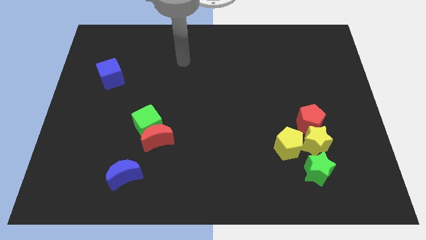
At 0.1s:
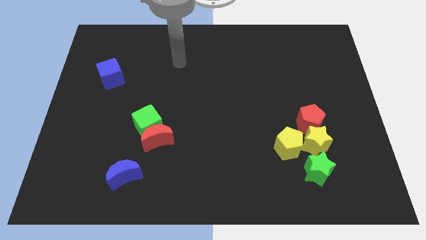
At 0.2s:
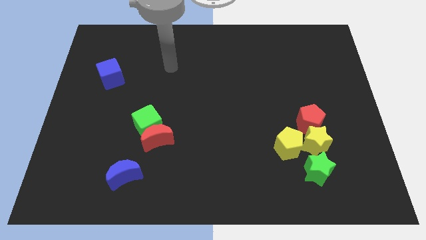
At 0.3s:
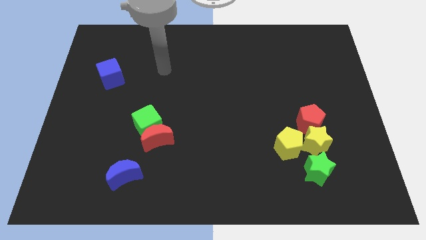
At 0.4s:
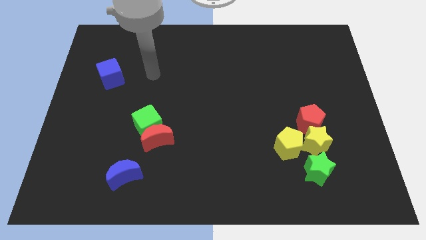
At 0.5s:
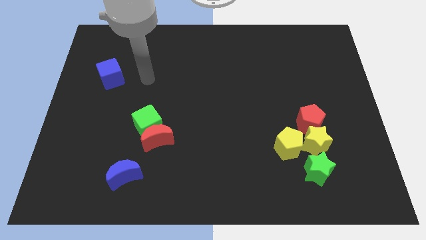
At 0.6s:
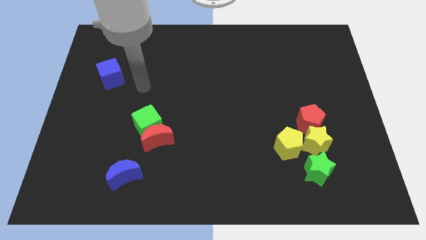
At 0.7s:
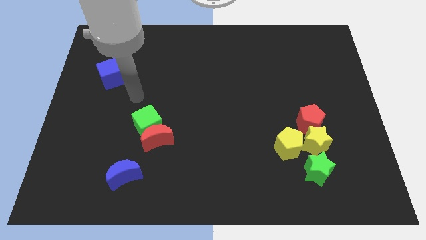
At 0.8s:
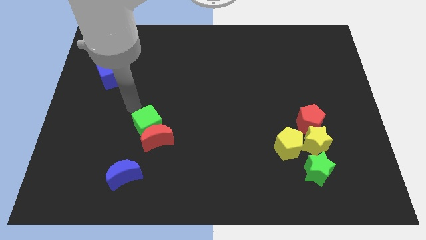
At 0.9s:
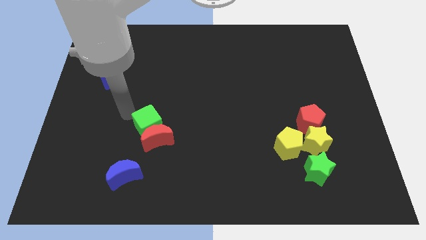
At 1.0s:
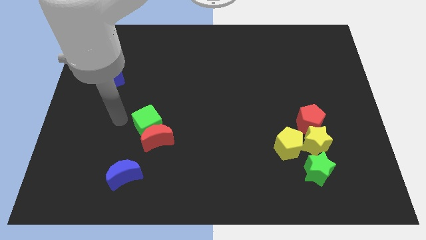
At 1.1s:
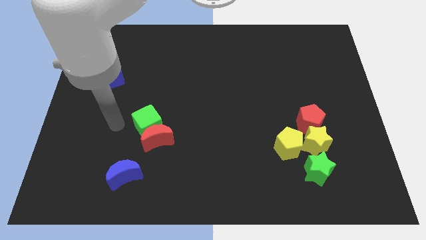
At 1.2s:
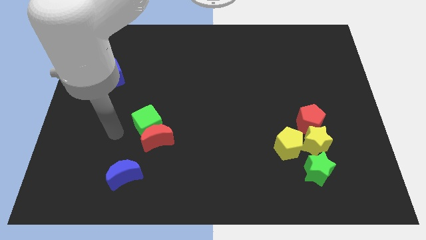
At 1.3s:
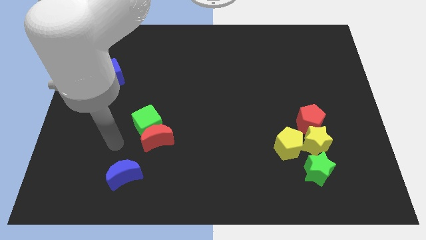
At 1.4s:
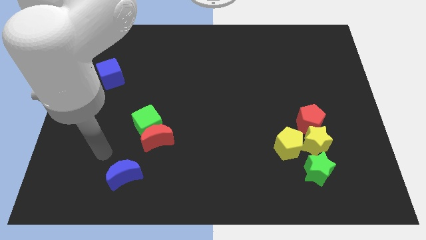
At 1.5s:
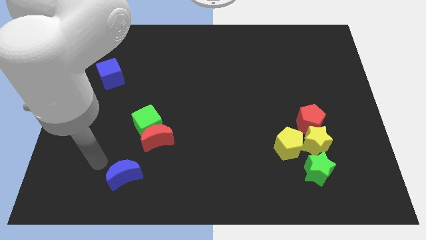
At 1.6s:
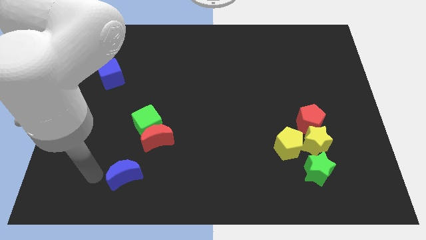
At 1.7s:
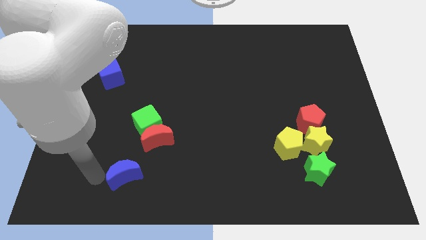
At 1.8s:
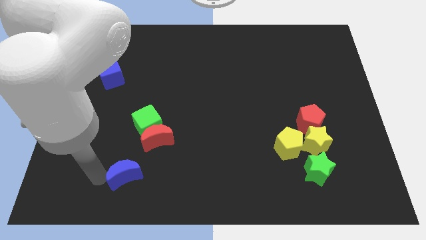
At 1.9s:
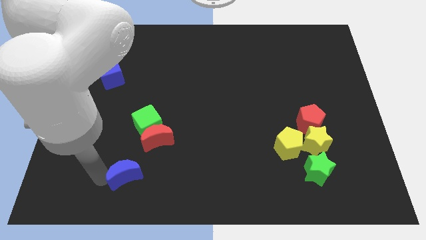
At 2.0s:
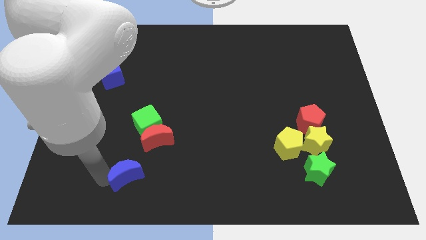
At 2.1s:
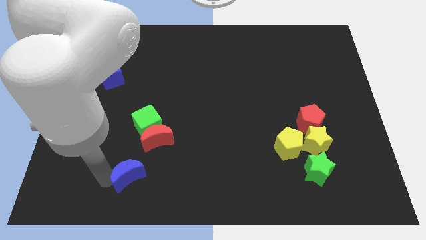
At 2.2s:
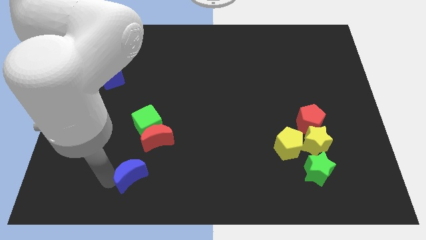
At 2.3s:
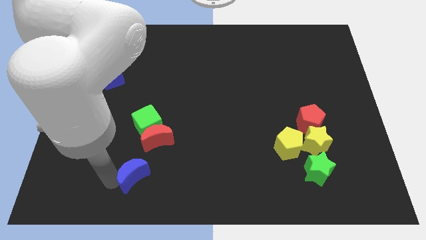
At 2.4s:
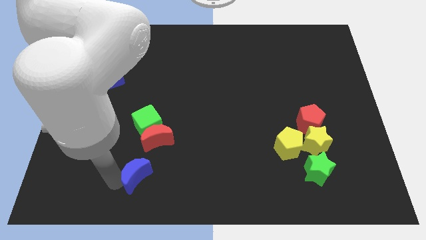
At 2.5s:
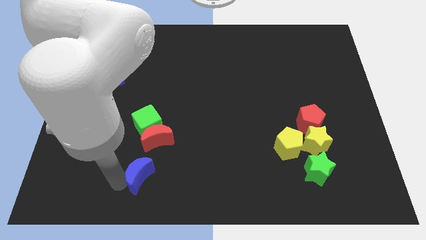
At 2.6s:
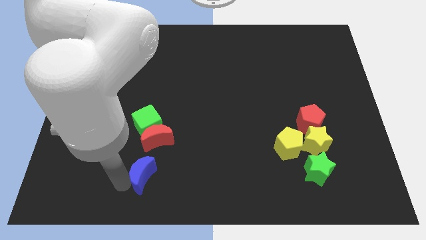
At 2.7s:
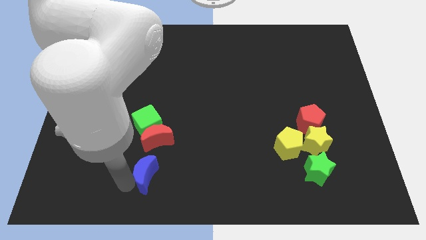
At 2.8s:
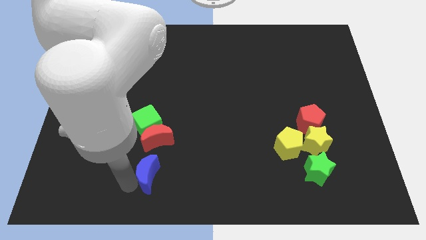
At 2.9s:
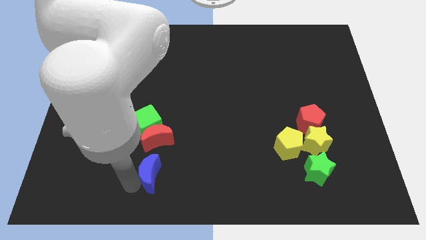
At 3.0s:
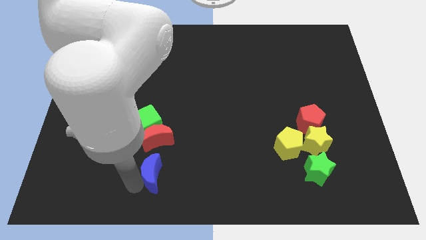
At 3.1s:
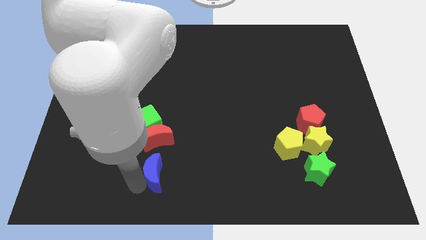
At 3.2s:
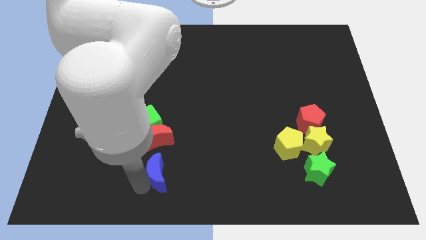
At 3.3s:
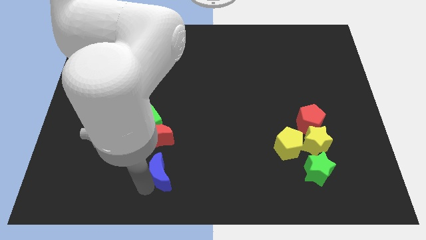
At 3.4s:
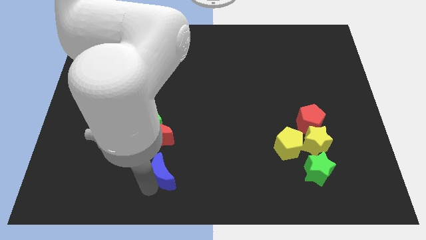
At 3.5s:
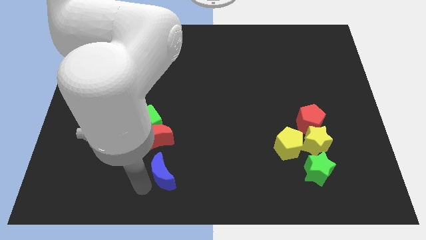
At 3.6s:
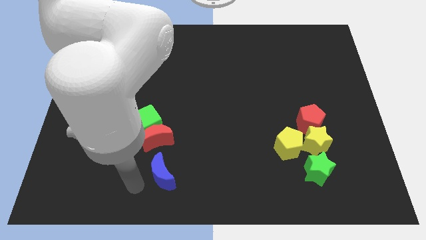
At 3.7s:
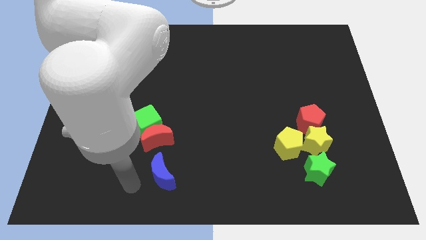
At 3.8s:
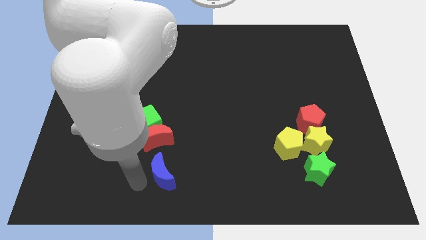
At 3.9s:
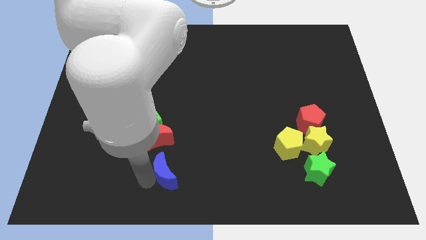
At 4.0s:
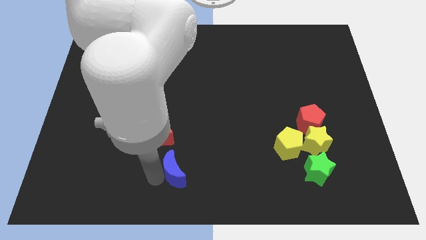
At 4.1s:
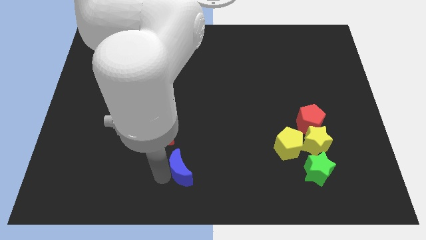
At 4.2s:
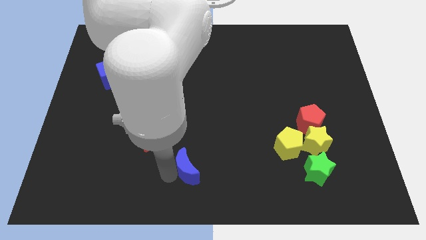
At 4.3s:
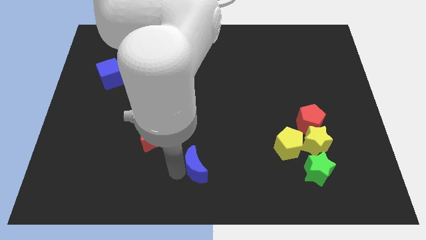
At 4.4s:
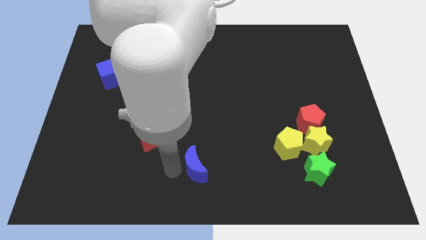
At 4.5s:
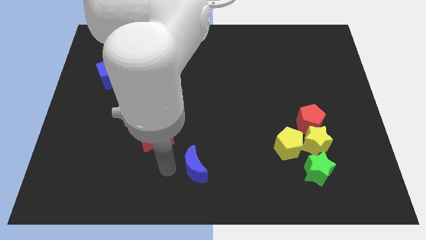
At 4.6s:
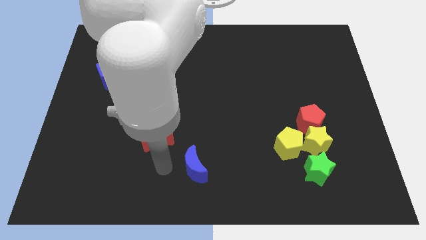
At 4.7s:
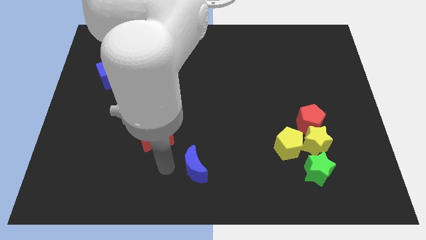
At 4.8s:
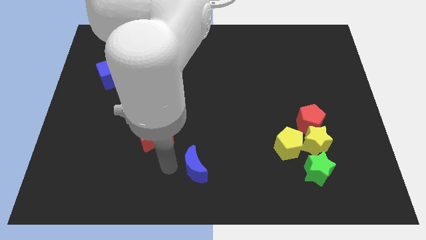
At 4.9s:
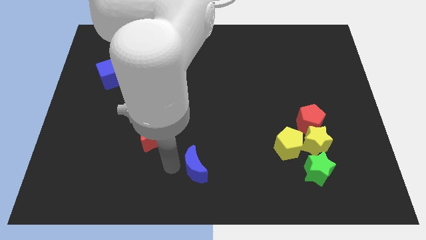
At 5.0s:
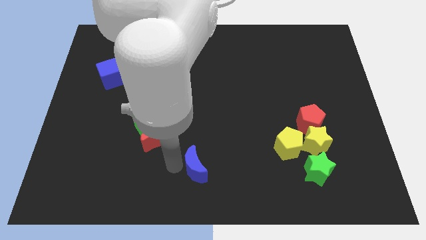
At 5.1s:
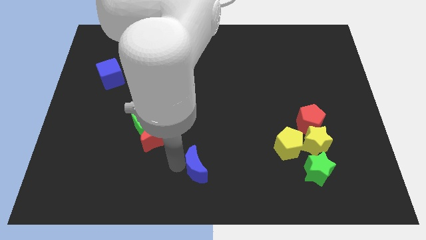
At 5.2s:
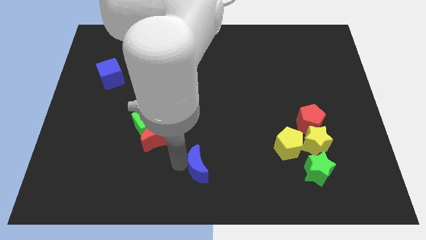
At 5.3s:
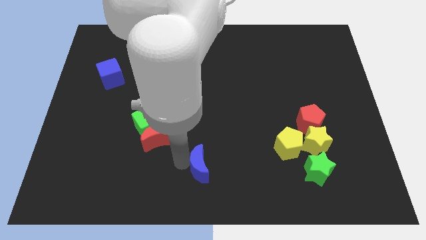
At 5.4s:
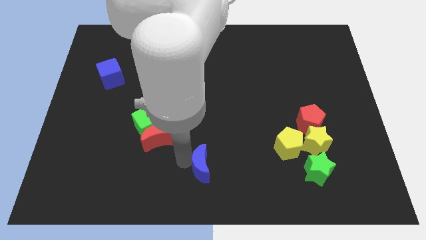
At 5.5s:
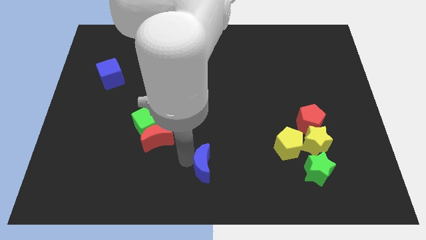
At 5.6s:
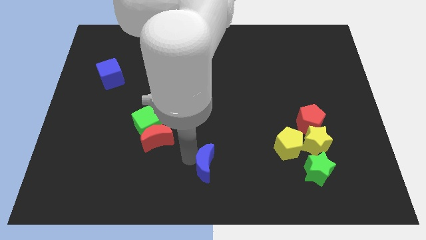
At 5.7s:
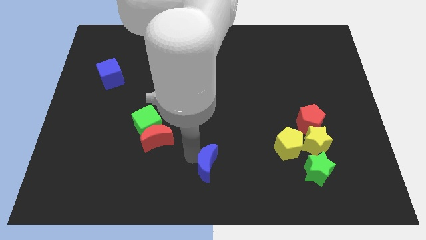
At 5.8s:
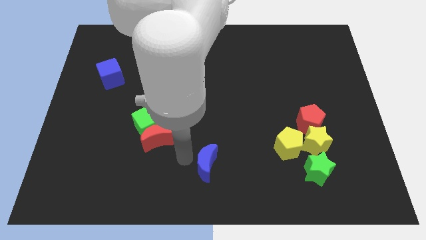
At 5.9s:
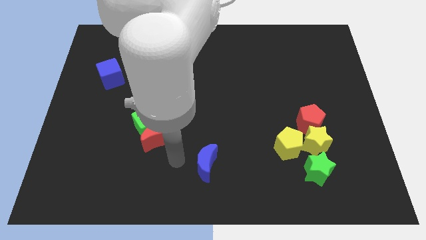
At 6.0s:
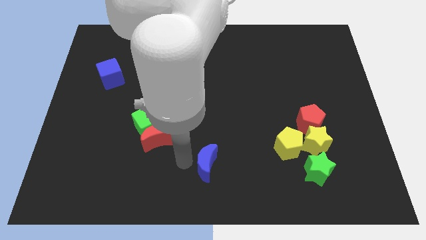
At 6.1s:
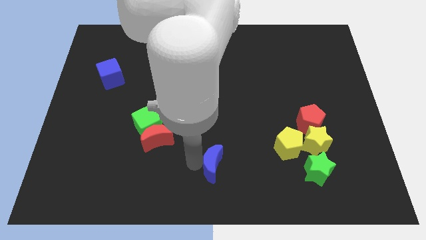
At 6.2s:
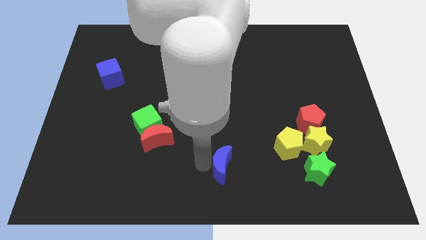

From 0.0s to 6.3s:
slide the blue moon right

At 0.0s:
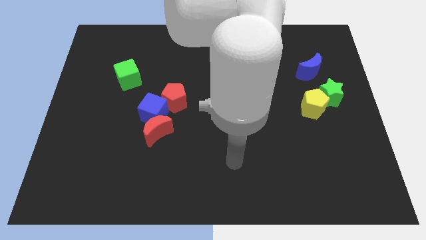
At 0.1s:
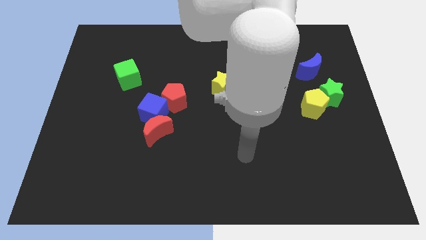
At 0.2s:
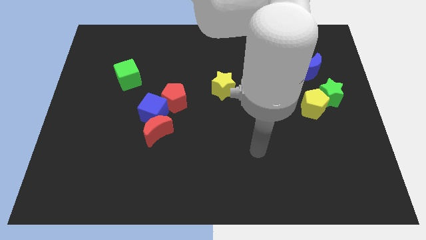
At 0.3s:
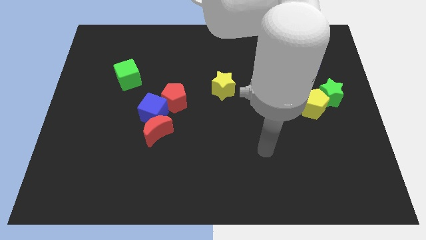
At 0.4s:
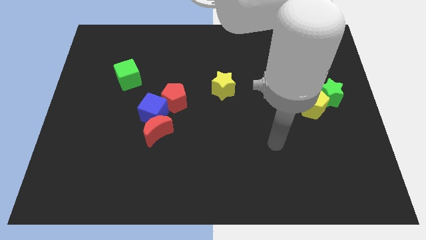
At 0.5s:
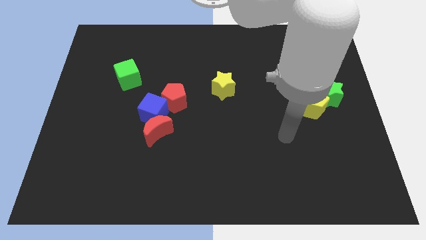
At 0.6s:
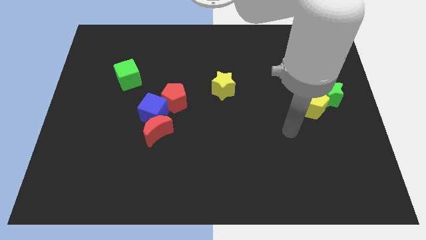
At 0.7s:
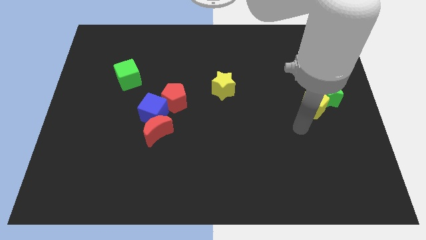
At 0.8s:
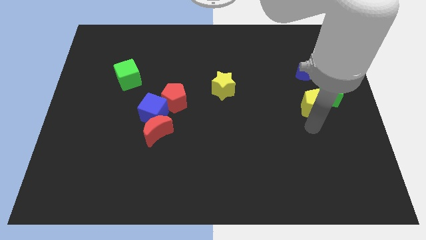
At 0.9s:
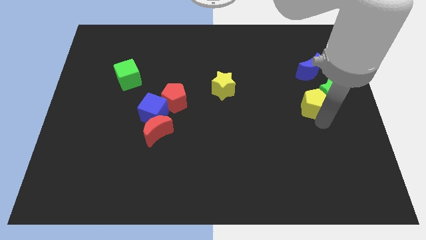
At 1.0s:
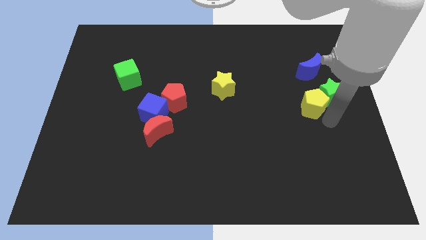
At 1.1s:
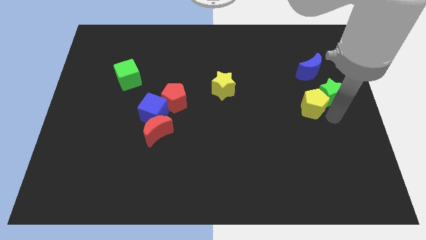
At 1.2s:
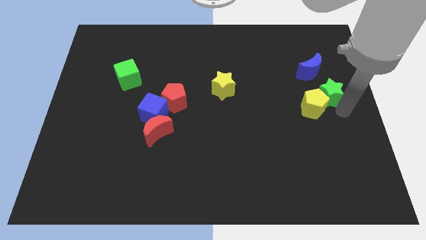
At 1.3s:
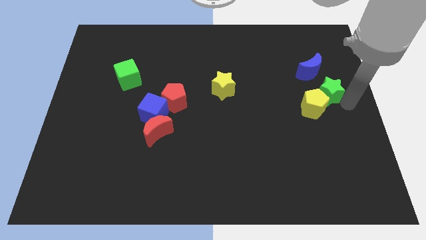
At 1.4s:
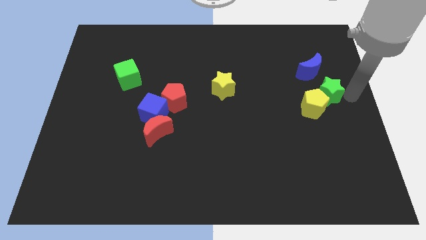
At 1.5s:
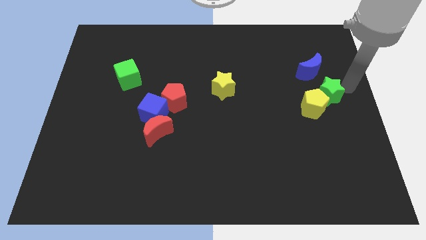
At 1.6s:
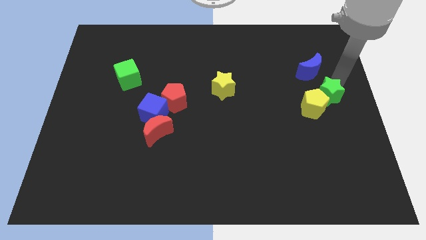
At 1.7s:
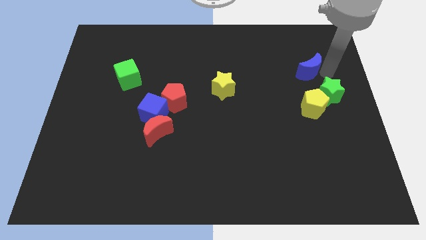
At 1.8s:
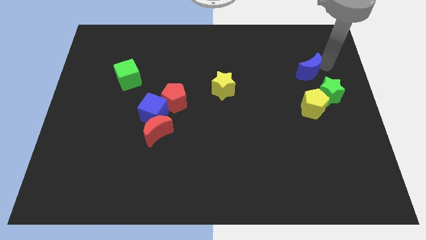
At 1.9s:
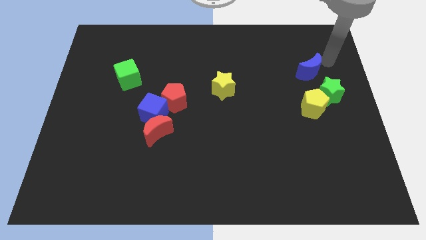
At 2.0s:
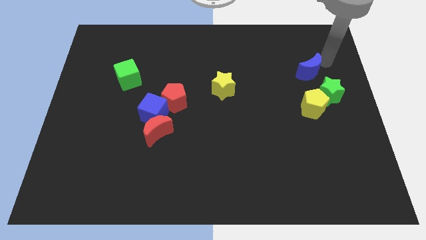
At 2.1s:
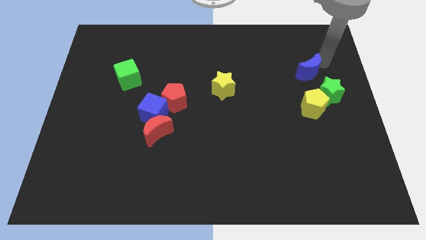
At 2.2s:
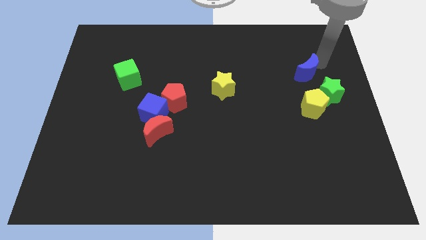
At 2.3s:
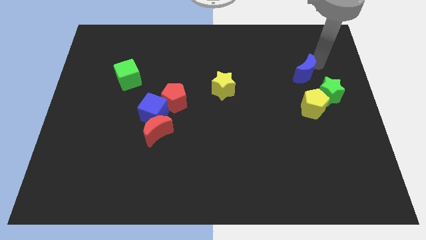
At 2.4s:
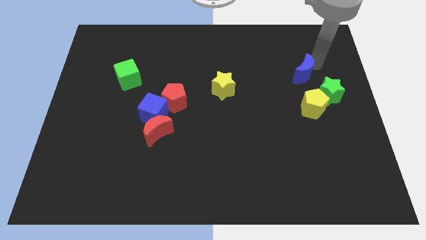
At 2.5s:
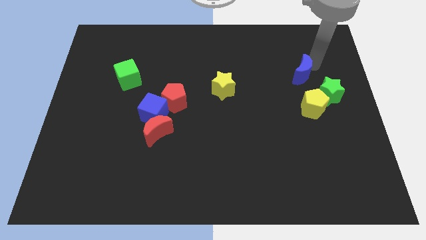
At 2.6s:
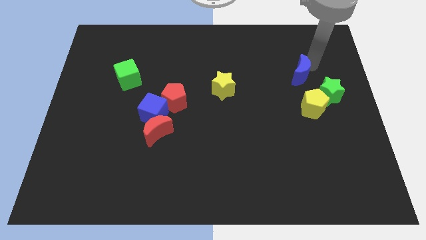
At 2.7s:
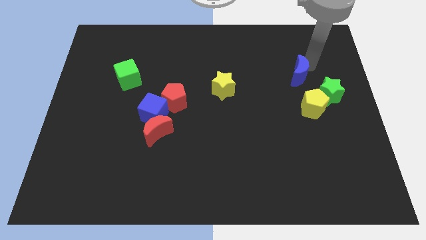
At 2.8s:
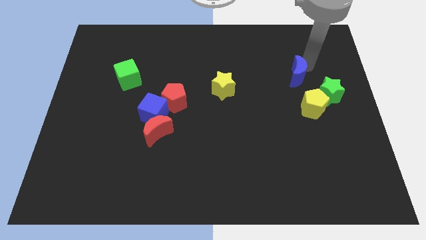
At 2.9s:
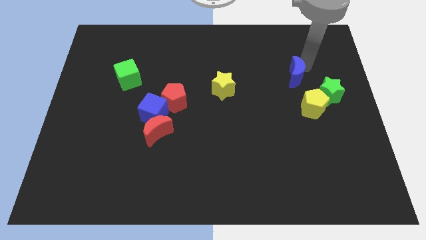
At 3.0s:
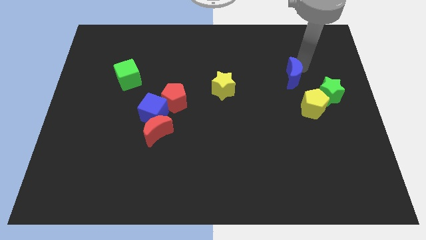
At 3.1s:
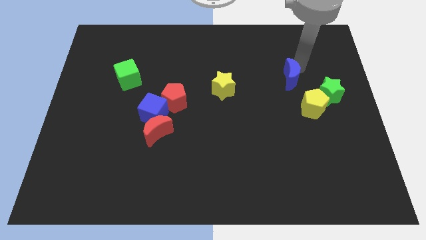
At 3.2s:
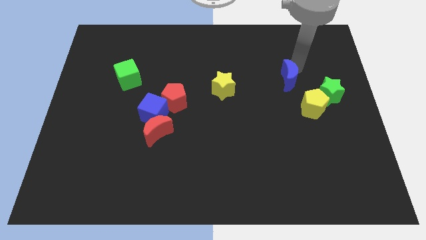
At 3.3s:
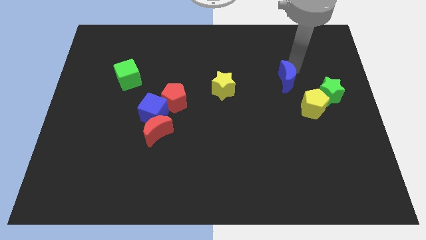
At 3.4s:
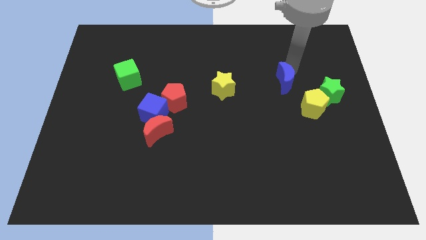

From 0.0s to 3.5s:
slide the blue moon diagonally downwards and left a little bit
